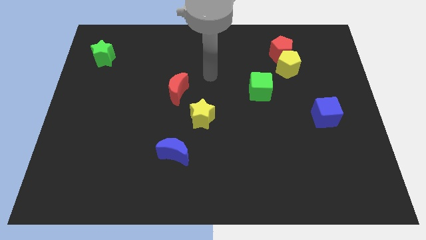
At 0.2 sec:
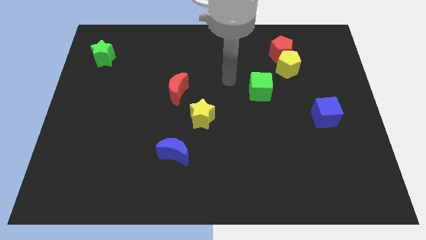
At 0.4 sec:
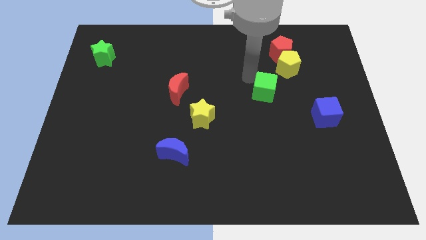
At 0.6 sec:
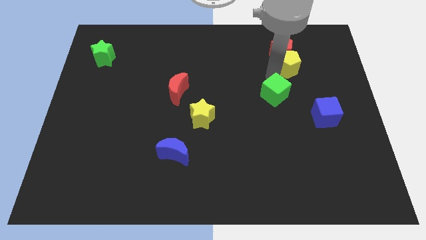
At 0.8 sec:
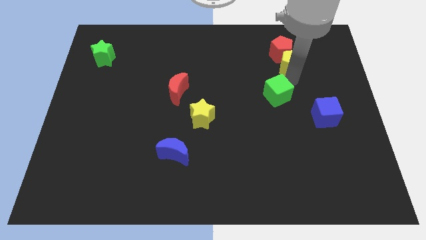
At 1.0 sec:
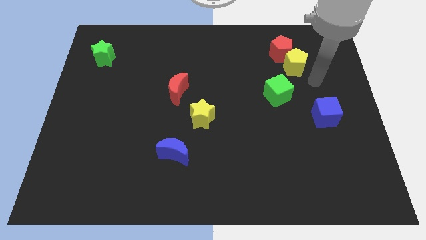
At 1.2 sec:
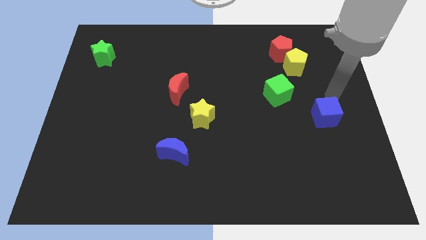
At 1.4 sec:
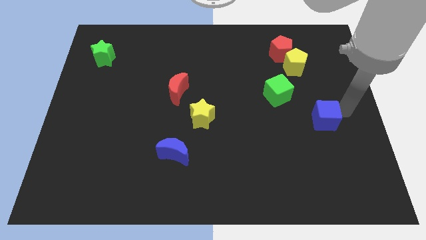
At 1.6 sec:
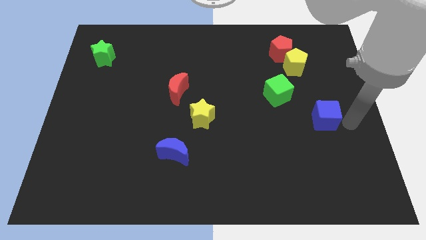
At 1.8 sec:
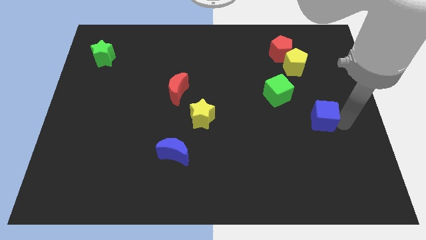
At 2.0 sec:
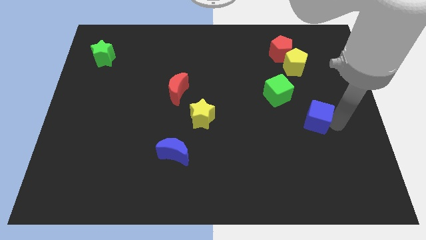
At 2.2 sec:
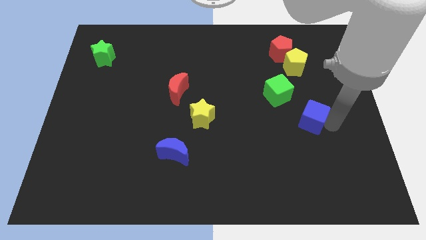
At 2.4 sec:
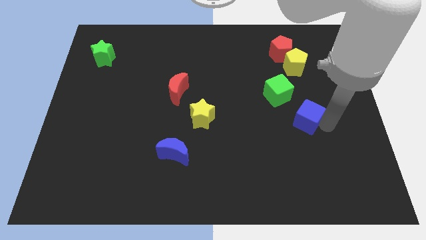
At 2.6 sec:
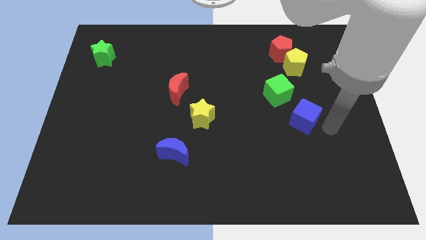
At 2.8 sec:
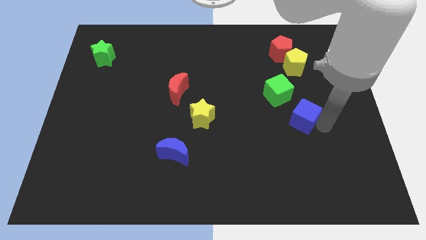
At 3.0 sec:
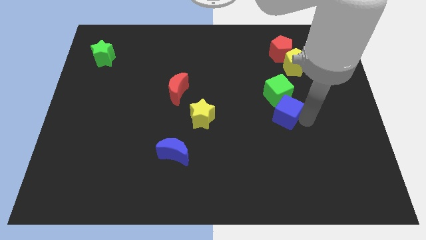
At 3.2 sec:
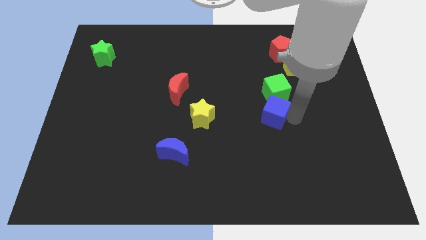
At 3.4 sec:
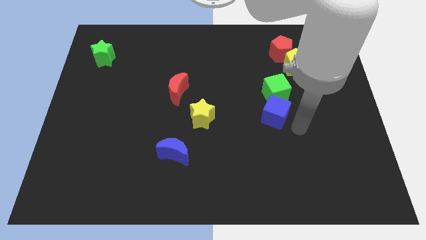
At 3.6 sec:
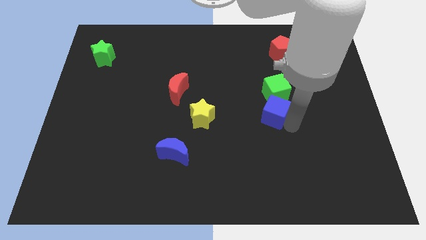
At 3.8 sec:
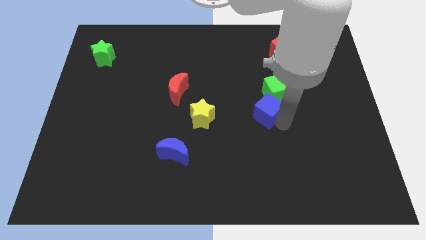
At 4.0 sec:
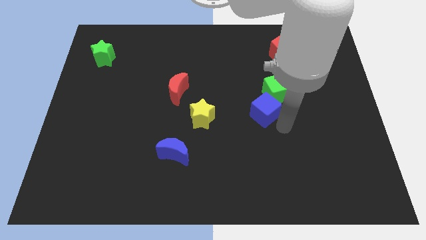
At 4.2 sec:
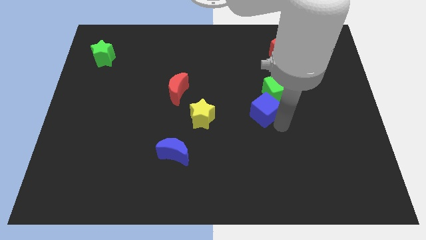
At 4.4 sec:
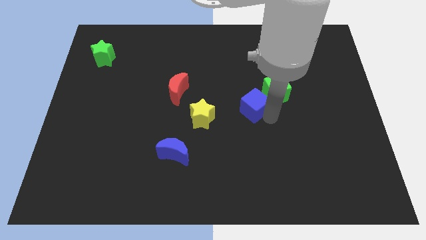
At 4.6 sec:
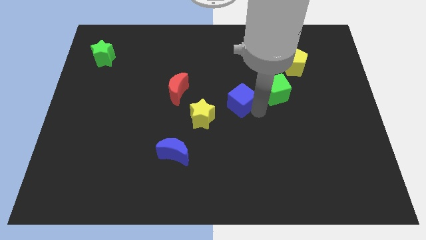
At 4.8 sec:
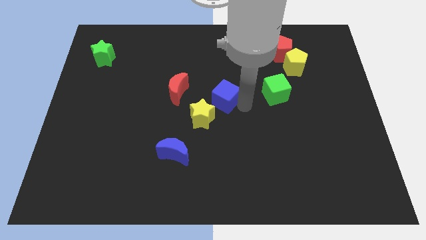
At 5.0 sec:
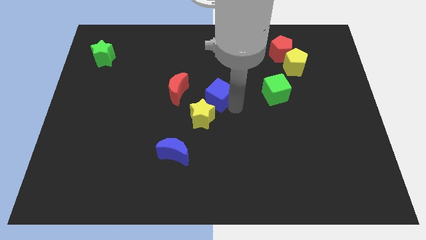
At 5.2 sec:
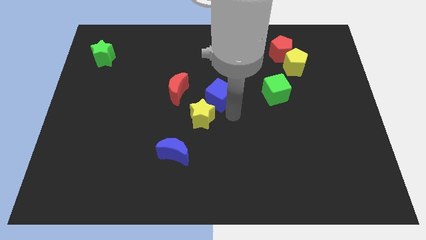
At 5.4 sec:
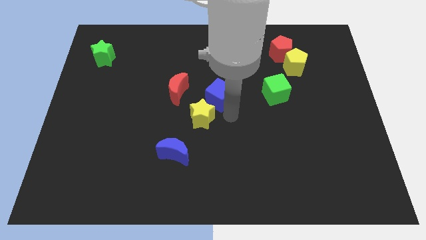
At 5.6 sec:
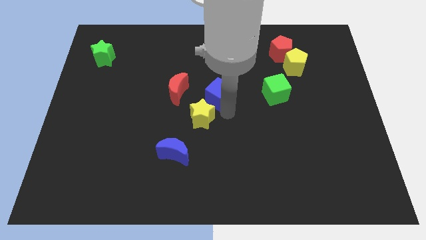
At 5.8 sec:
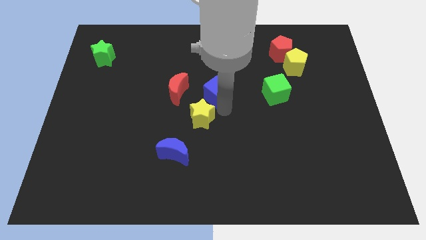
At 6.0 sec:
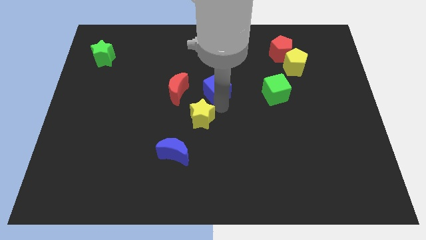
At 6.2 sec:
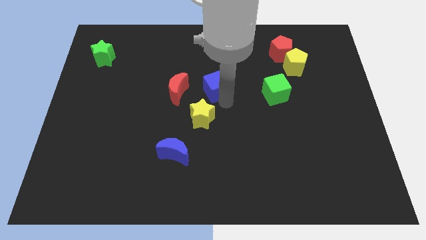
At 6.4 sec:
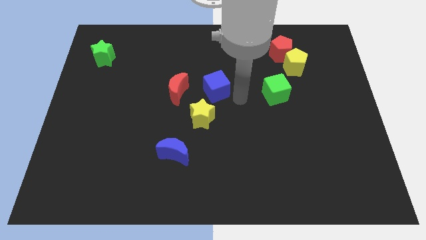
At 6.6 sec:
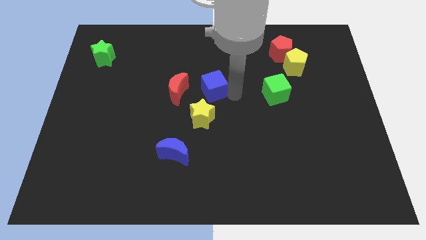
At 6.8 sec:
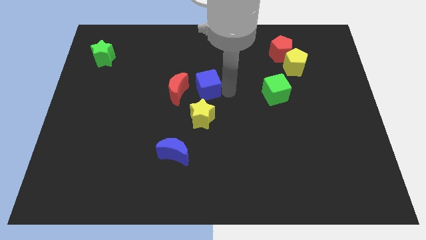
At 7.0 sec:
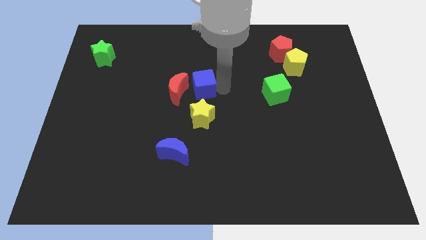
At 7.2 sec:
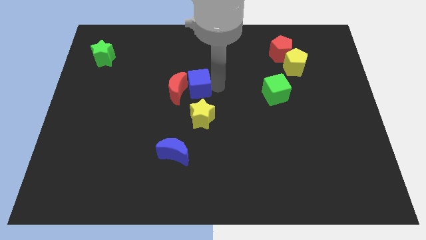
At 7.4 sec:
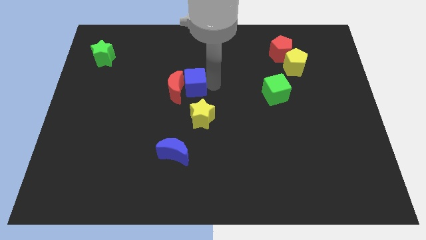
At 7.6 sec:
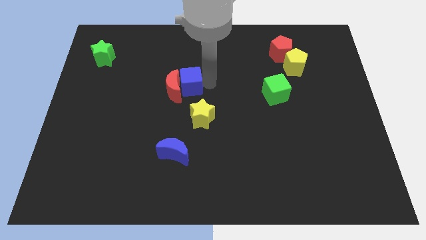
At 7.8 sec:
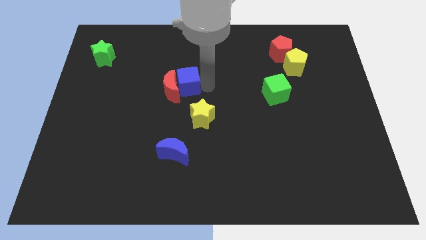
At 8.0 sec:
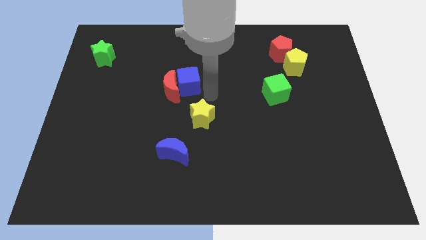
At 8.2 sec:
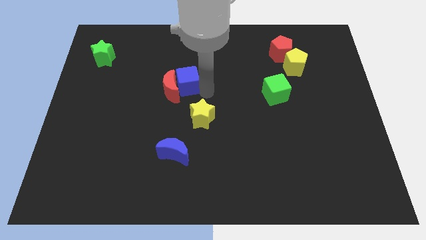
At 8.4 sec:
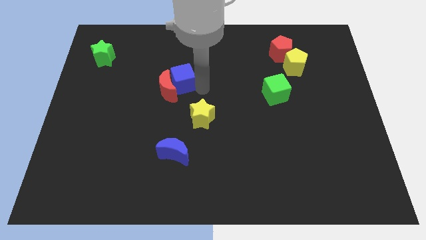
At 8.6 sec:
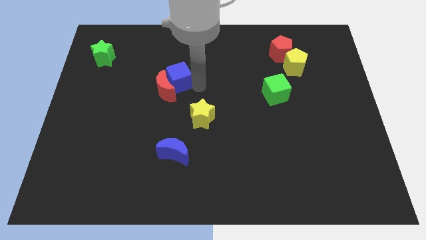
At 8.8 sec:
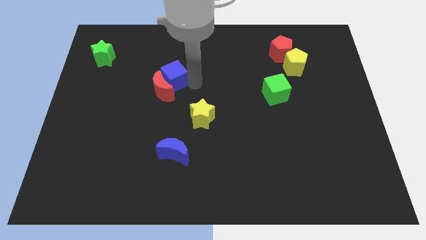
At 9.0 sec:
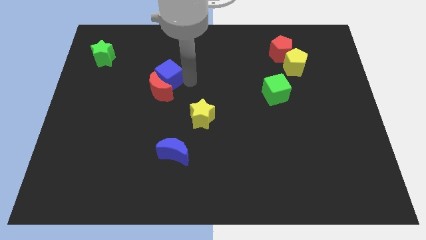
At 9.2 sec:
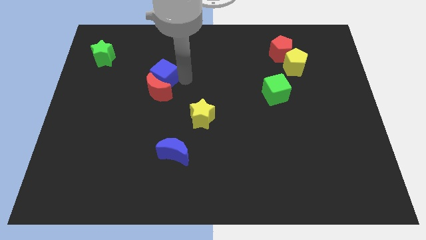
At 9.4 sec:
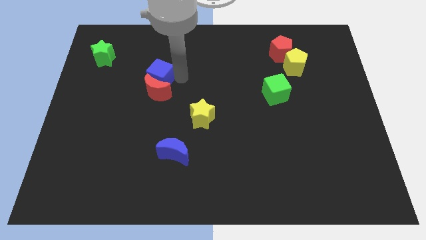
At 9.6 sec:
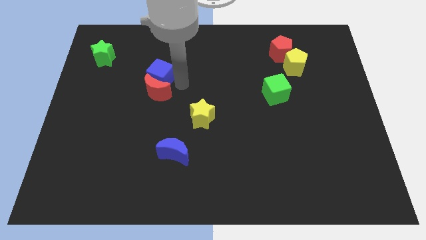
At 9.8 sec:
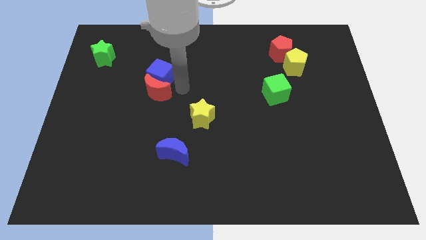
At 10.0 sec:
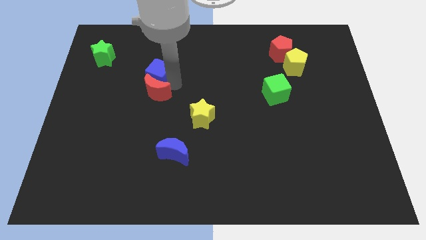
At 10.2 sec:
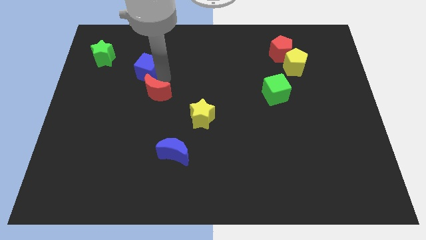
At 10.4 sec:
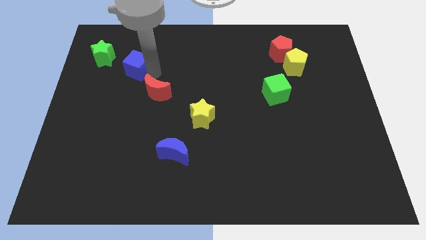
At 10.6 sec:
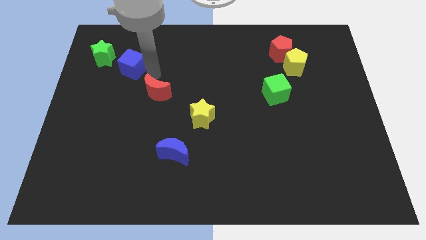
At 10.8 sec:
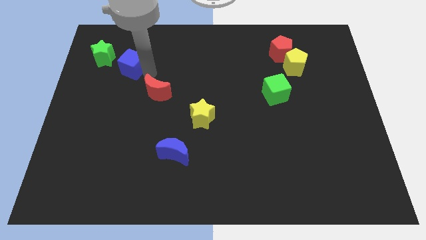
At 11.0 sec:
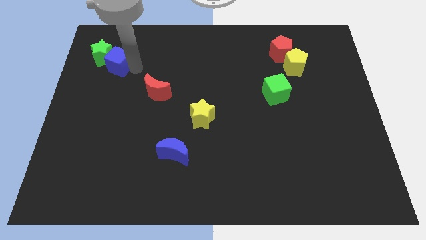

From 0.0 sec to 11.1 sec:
put the blue cube next to the green star

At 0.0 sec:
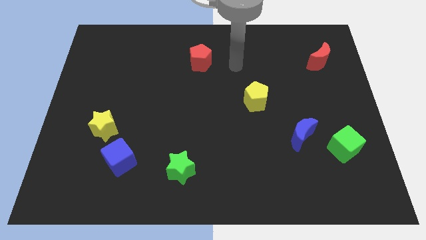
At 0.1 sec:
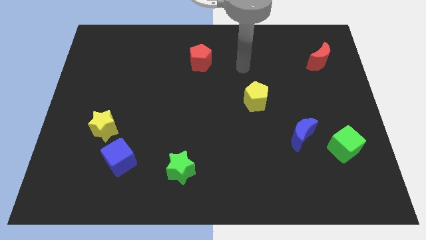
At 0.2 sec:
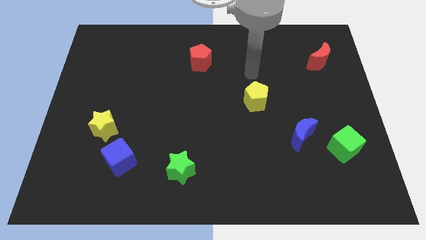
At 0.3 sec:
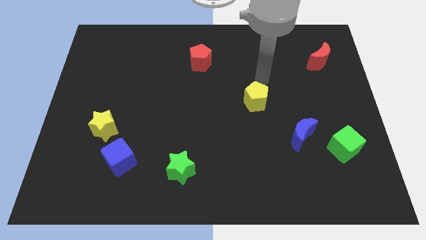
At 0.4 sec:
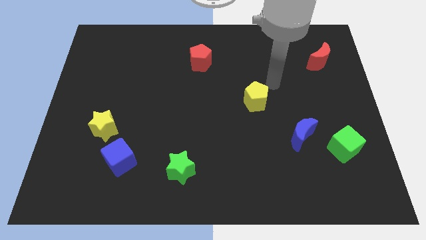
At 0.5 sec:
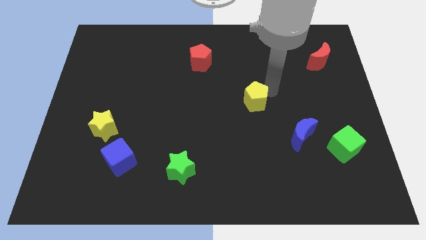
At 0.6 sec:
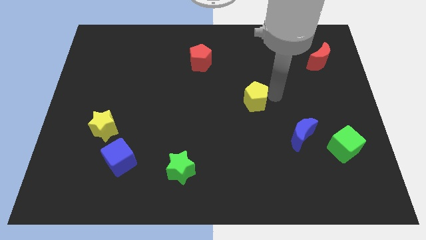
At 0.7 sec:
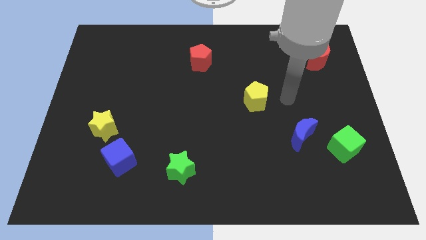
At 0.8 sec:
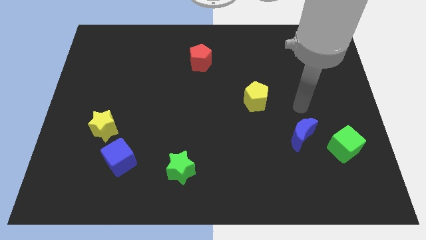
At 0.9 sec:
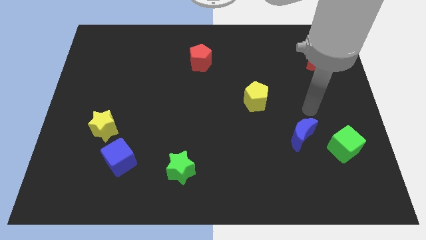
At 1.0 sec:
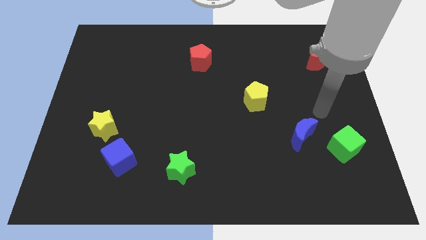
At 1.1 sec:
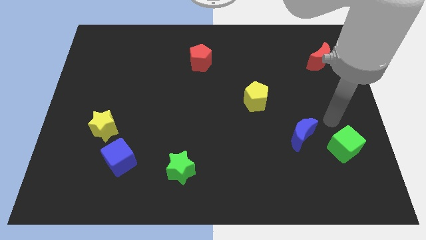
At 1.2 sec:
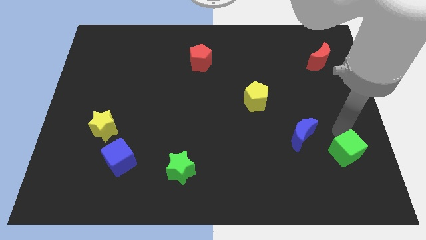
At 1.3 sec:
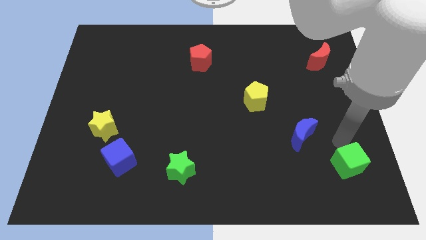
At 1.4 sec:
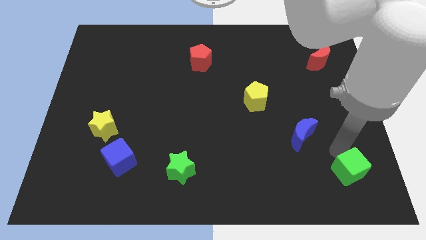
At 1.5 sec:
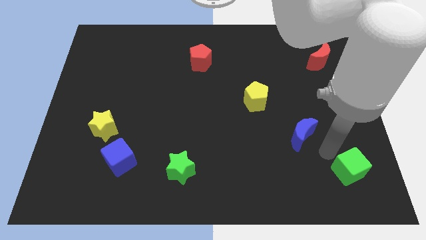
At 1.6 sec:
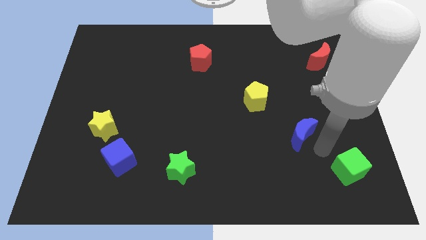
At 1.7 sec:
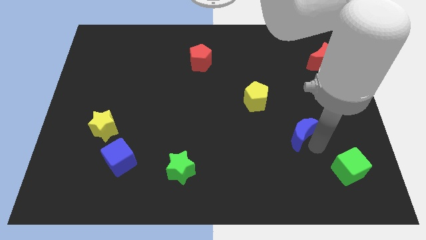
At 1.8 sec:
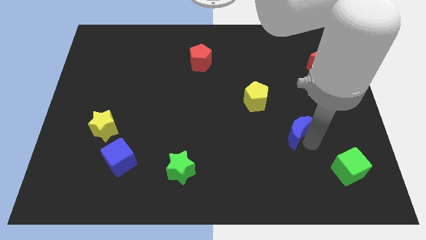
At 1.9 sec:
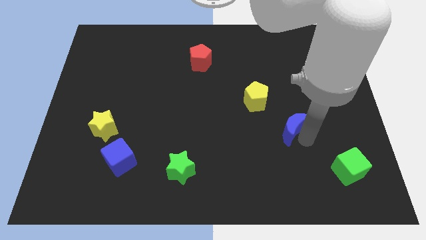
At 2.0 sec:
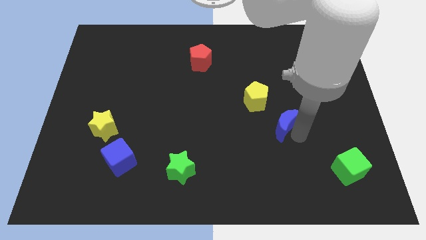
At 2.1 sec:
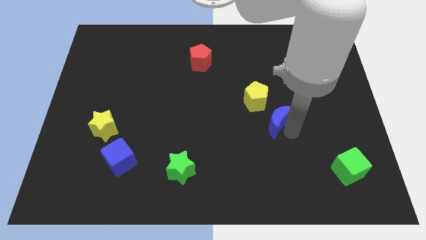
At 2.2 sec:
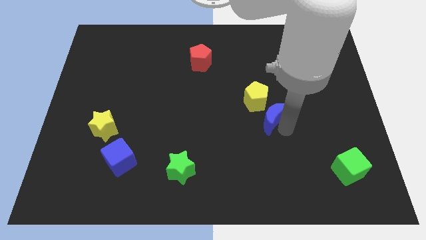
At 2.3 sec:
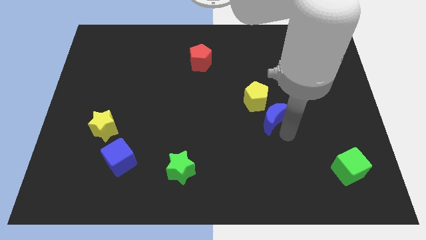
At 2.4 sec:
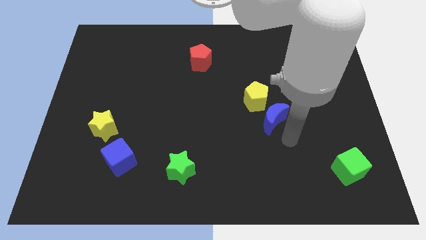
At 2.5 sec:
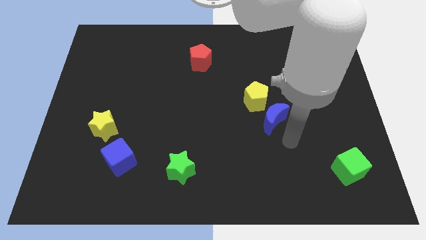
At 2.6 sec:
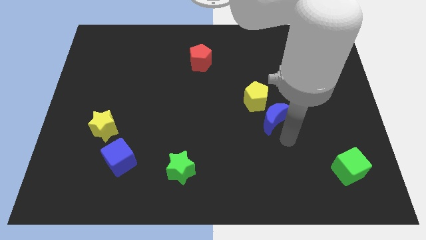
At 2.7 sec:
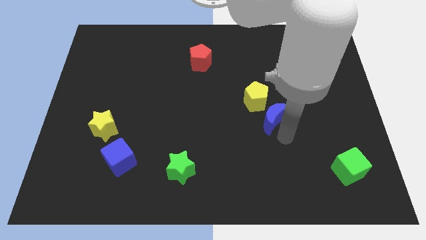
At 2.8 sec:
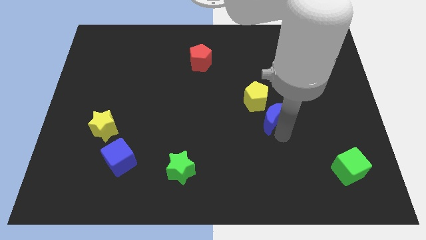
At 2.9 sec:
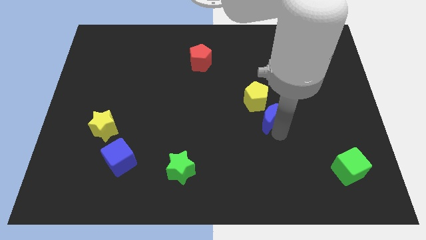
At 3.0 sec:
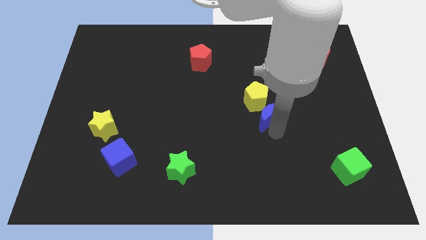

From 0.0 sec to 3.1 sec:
push the blue moon to the yellow pentagon
